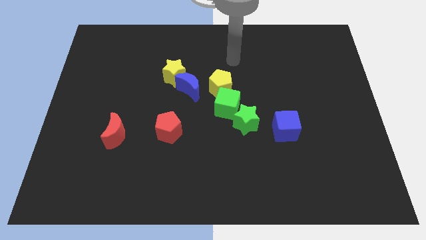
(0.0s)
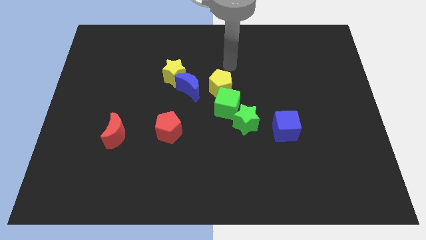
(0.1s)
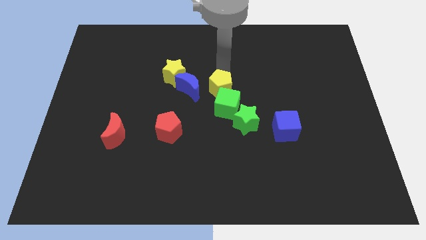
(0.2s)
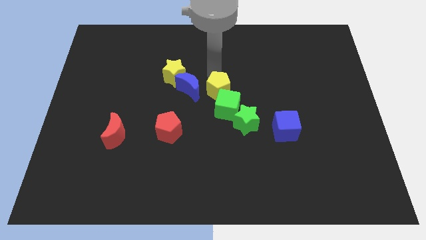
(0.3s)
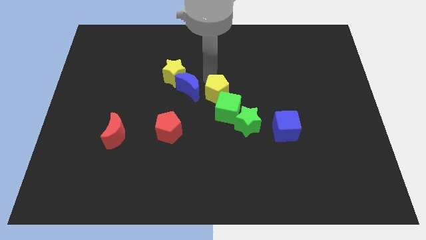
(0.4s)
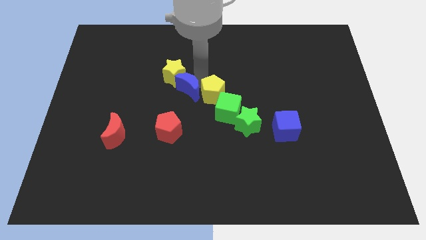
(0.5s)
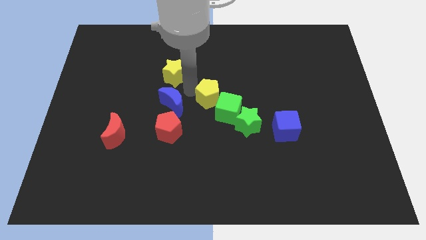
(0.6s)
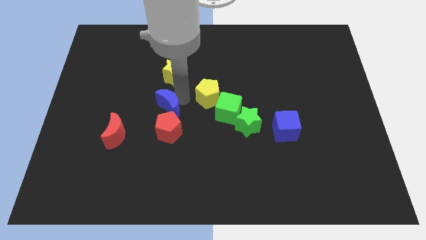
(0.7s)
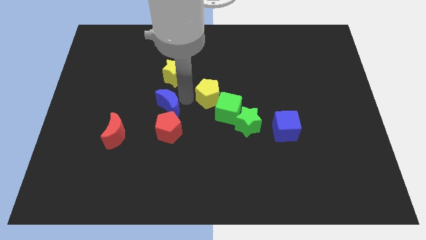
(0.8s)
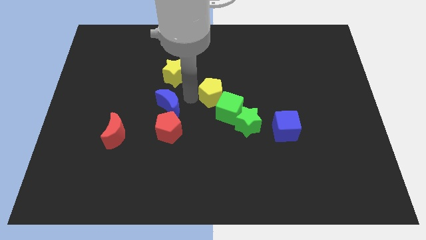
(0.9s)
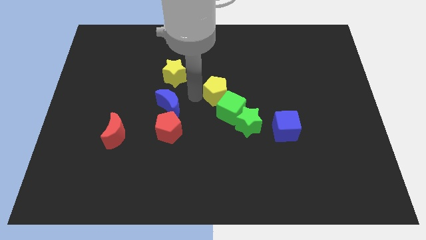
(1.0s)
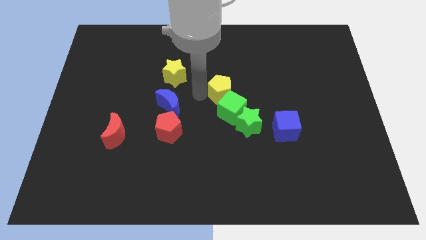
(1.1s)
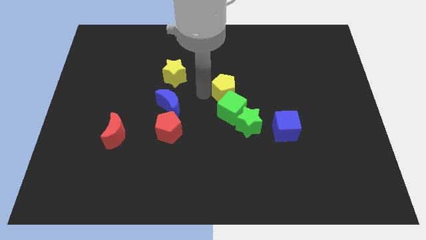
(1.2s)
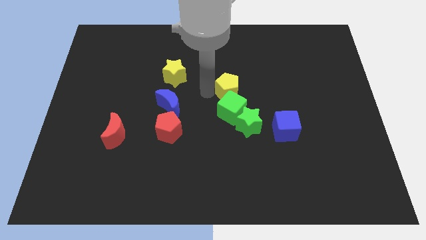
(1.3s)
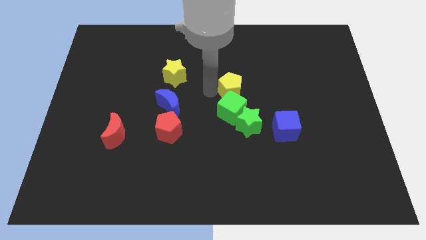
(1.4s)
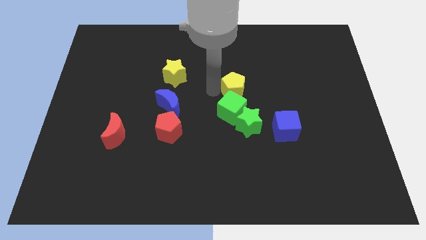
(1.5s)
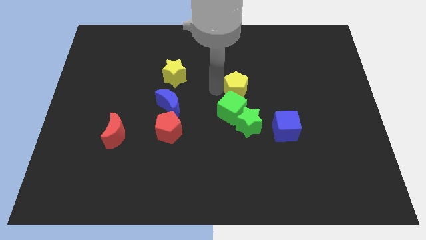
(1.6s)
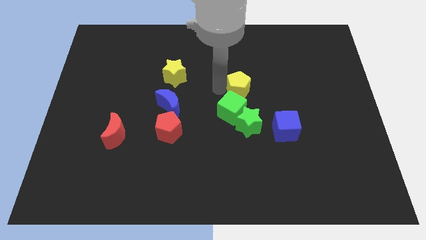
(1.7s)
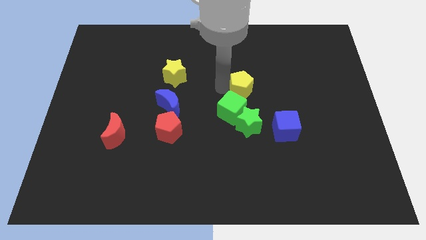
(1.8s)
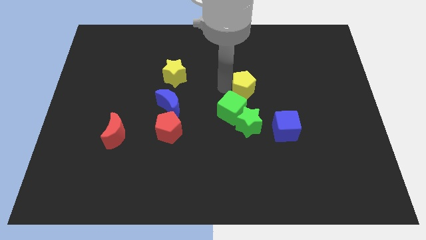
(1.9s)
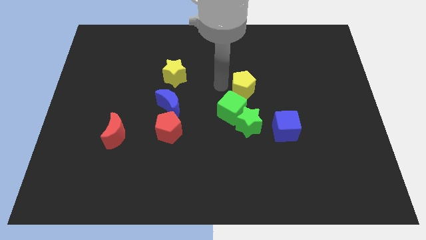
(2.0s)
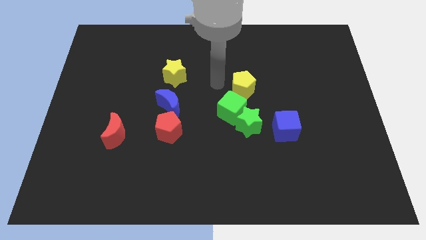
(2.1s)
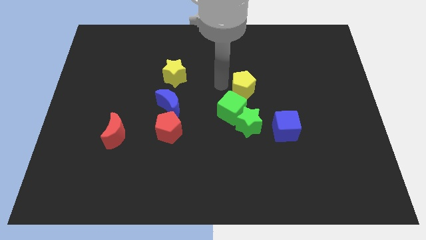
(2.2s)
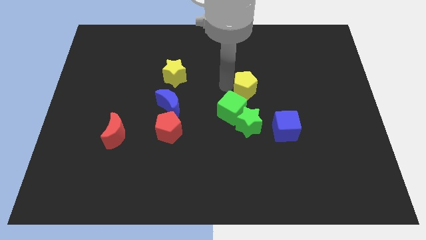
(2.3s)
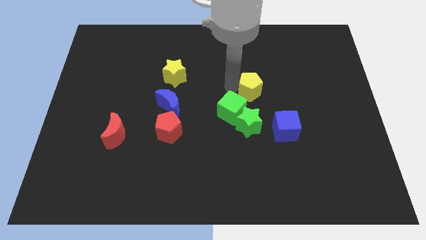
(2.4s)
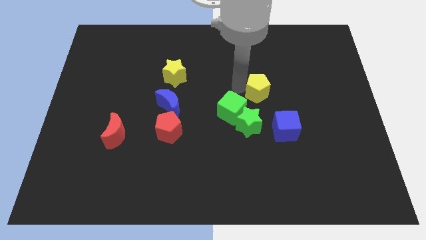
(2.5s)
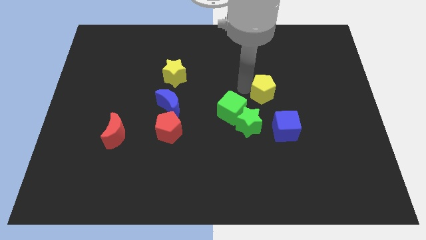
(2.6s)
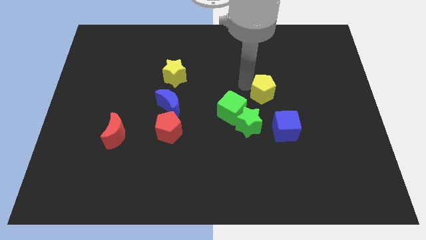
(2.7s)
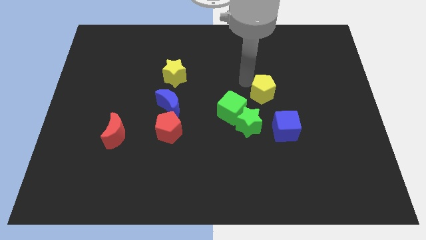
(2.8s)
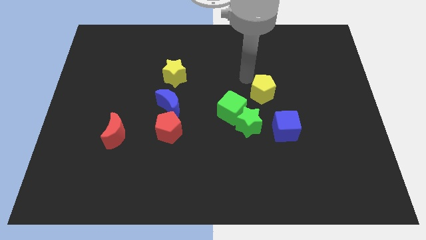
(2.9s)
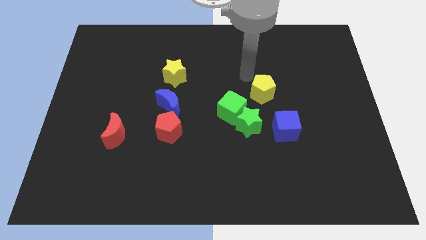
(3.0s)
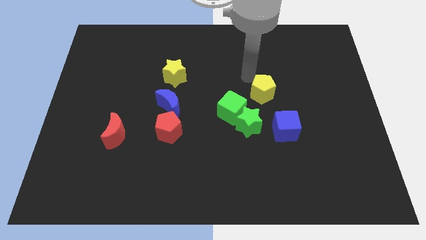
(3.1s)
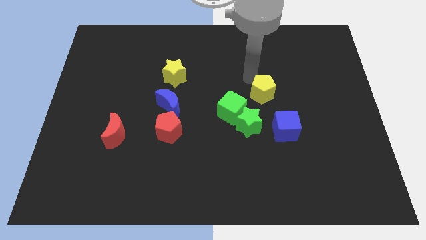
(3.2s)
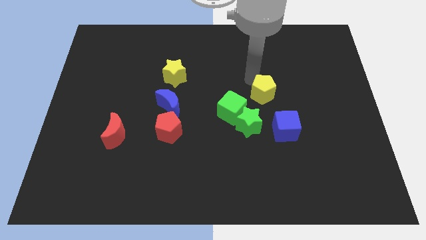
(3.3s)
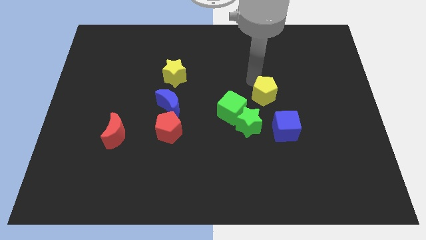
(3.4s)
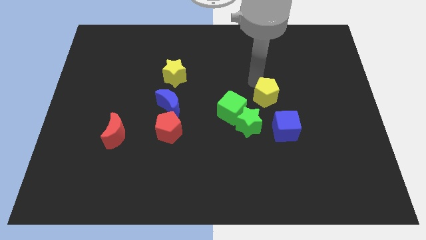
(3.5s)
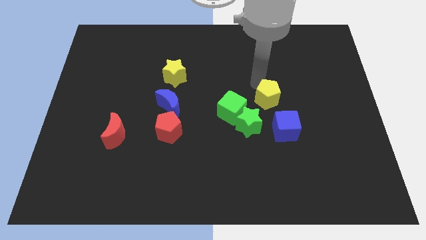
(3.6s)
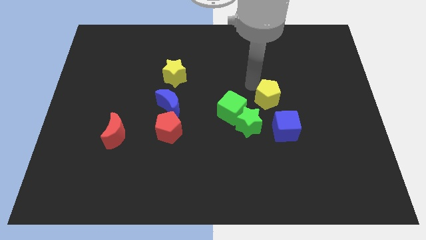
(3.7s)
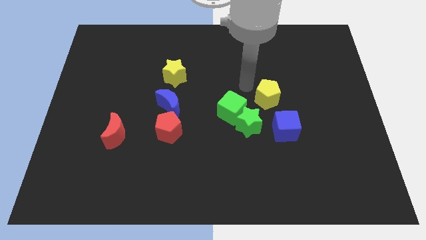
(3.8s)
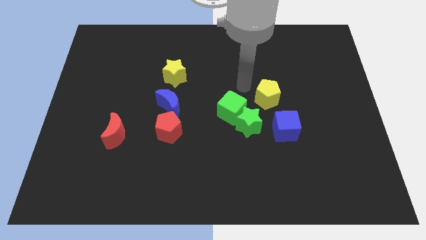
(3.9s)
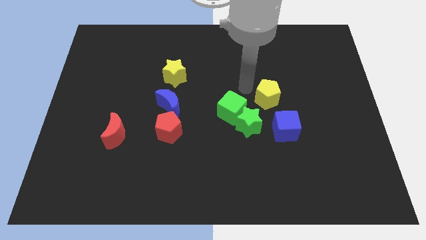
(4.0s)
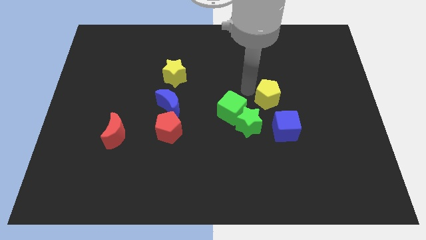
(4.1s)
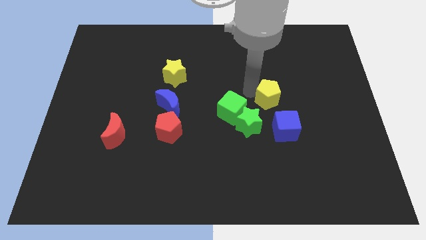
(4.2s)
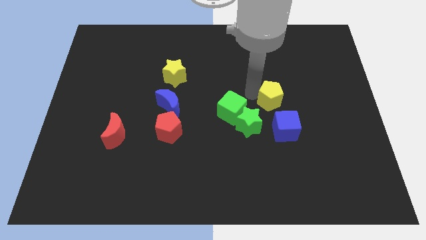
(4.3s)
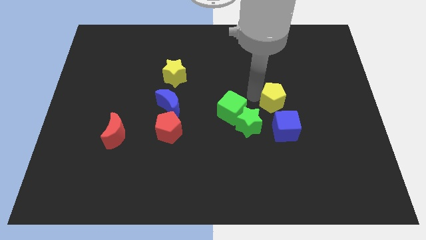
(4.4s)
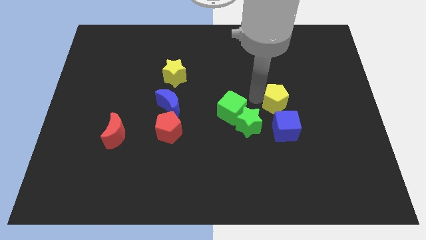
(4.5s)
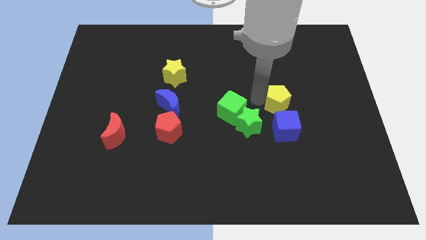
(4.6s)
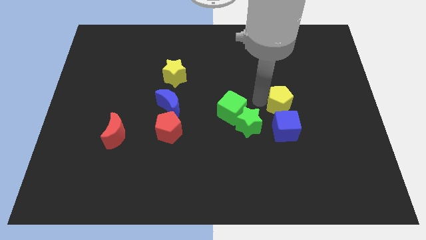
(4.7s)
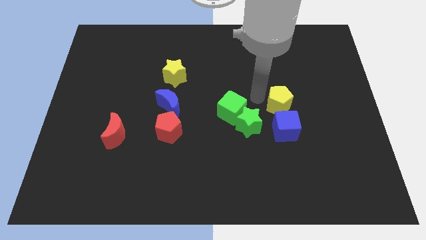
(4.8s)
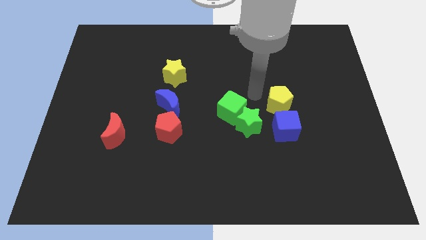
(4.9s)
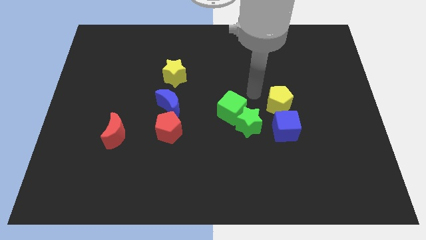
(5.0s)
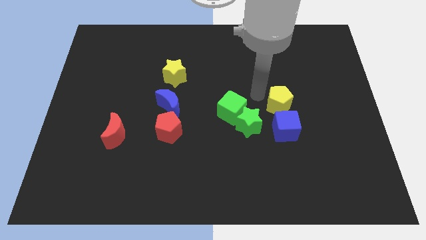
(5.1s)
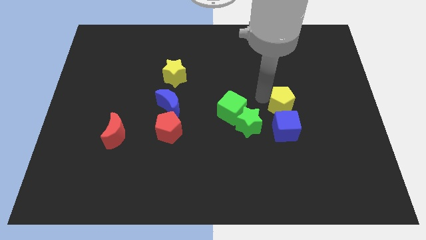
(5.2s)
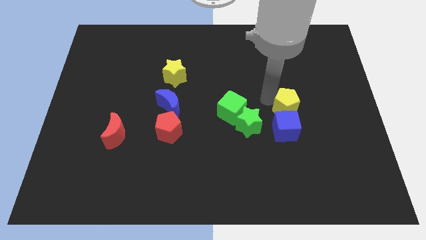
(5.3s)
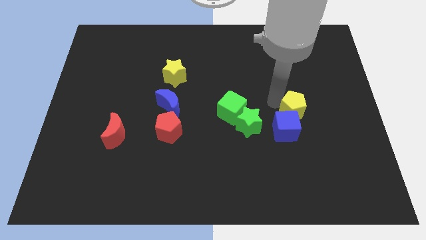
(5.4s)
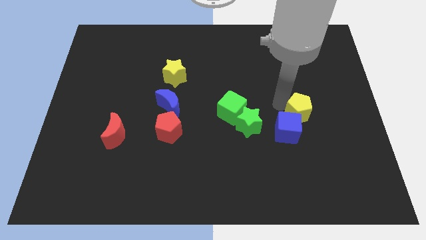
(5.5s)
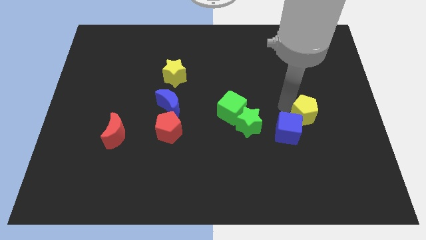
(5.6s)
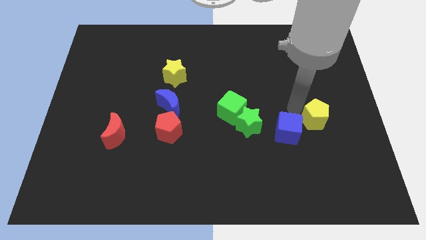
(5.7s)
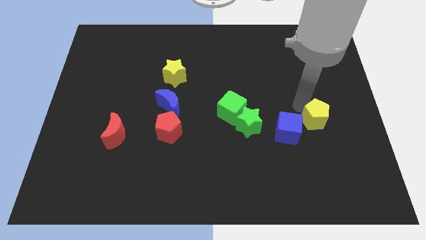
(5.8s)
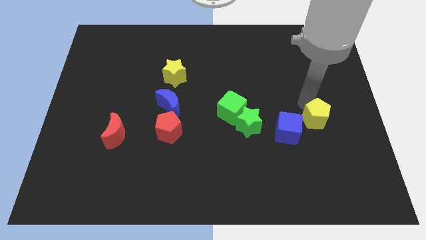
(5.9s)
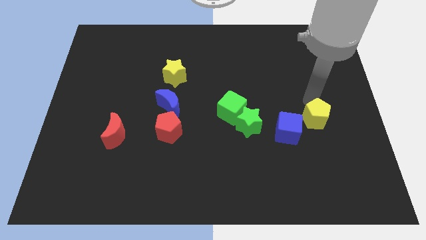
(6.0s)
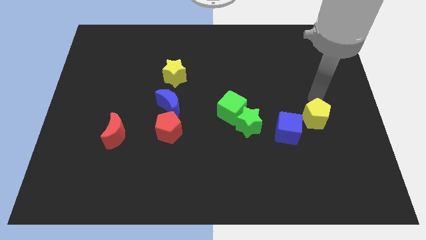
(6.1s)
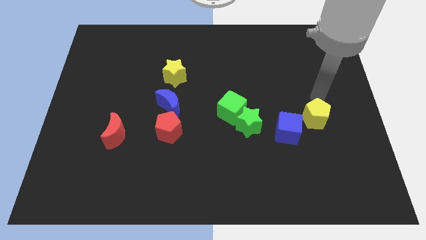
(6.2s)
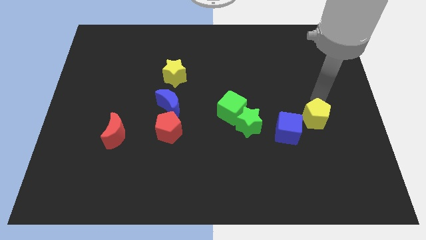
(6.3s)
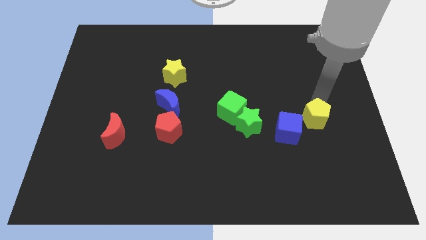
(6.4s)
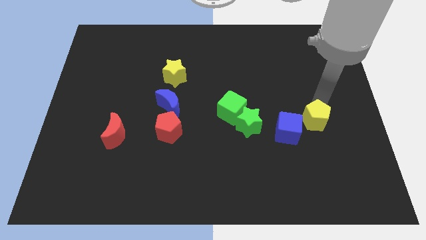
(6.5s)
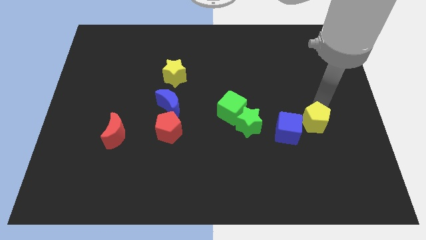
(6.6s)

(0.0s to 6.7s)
slide the yellow pentagon down and to the right diagonally

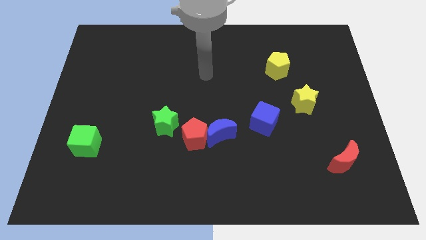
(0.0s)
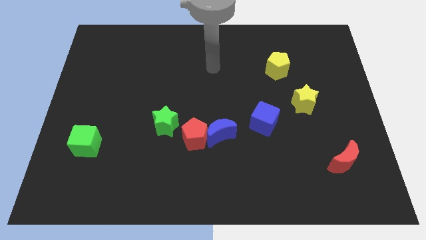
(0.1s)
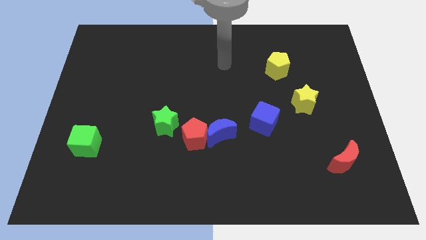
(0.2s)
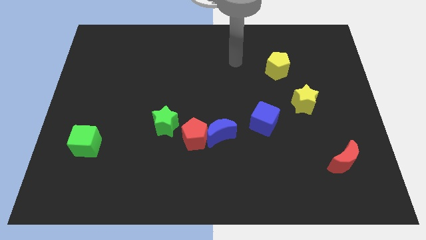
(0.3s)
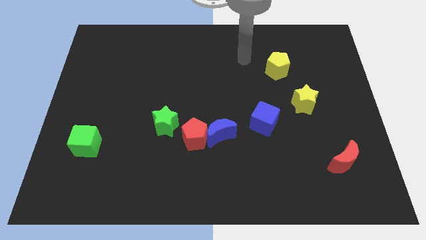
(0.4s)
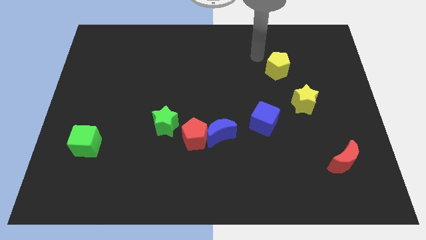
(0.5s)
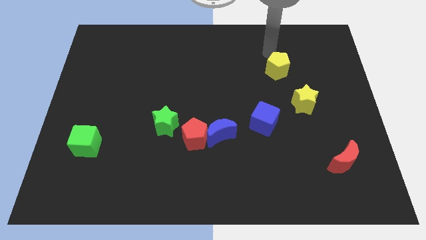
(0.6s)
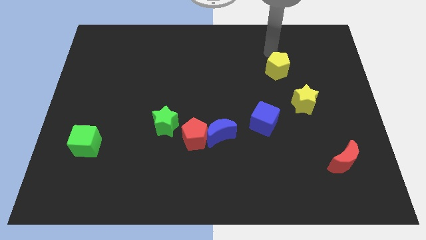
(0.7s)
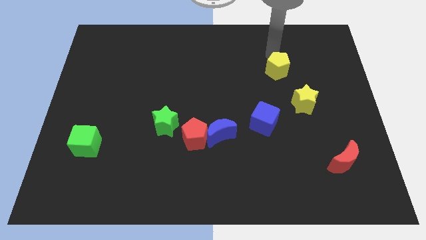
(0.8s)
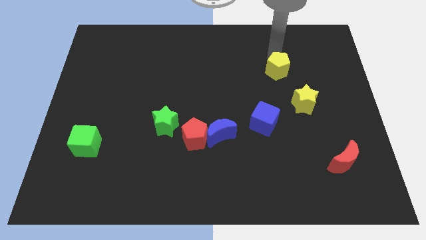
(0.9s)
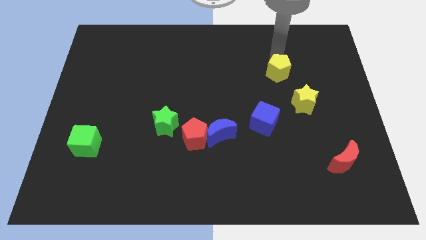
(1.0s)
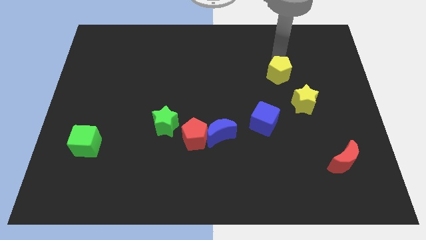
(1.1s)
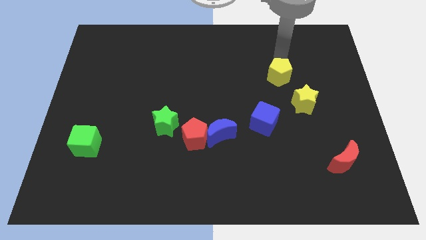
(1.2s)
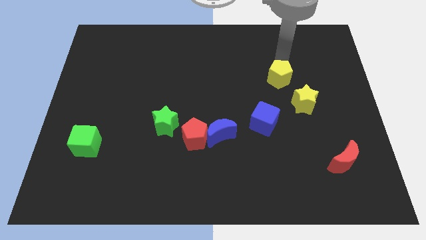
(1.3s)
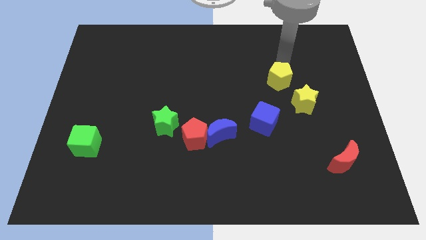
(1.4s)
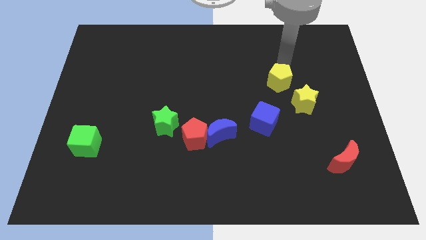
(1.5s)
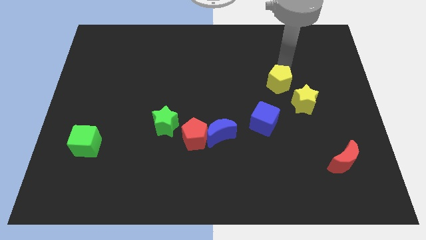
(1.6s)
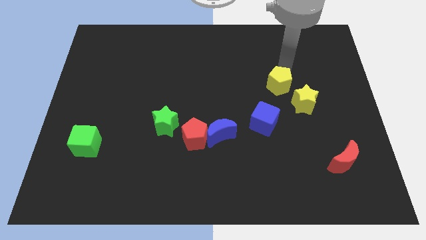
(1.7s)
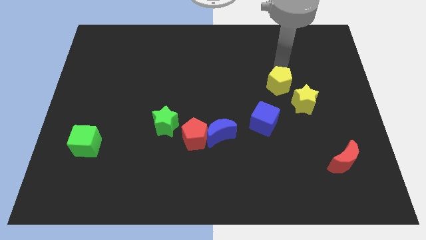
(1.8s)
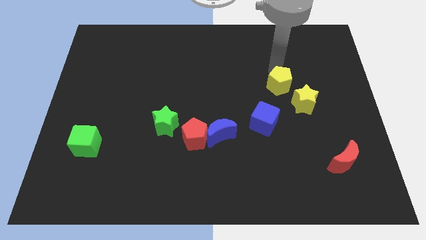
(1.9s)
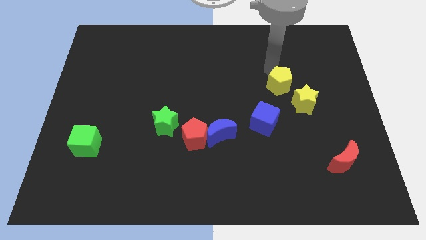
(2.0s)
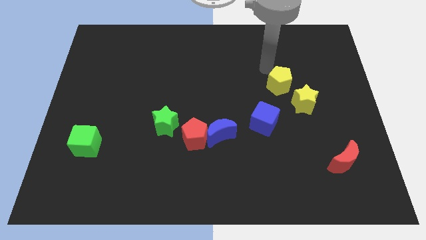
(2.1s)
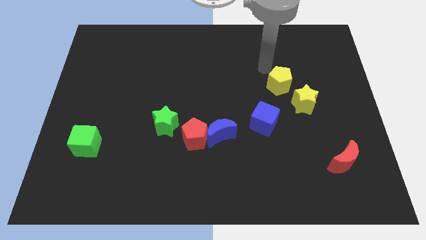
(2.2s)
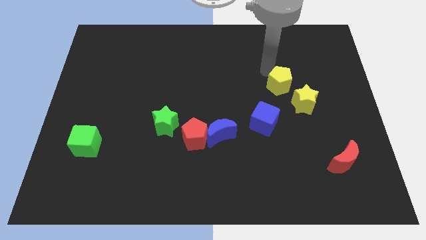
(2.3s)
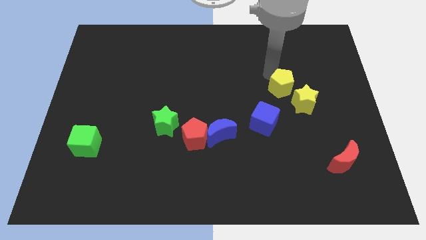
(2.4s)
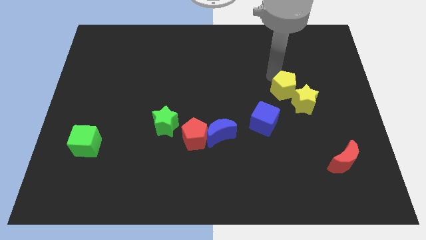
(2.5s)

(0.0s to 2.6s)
slightly move the yellow pentagon down
